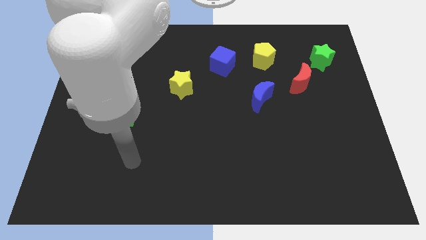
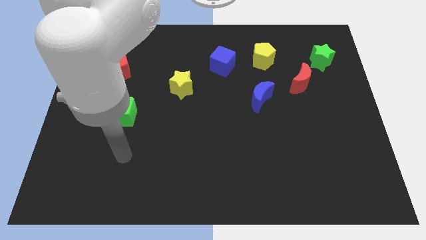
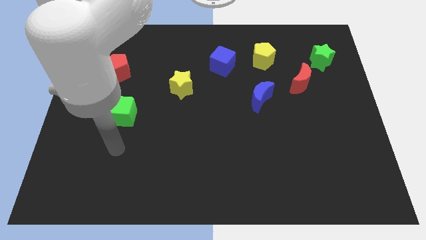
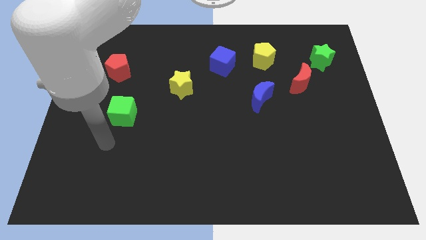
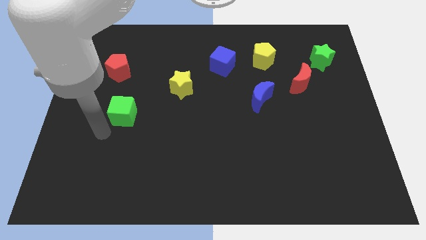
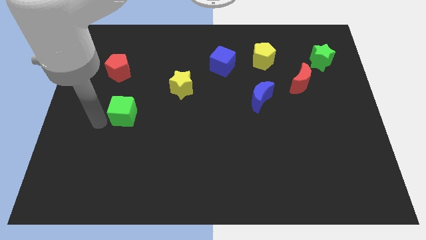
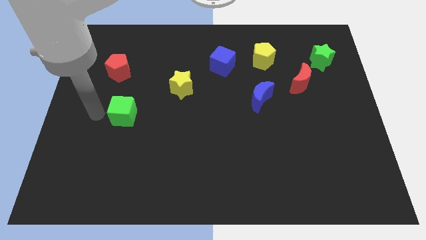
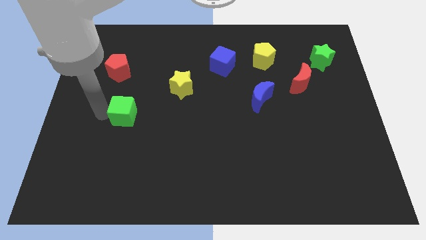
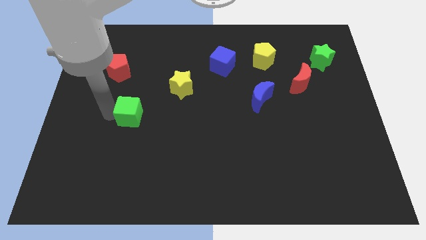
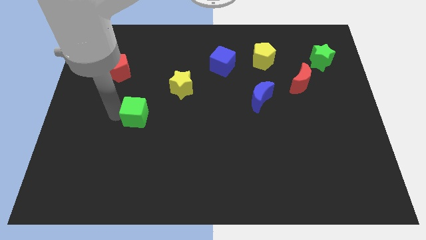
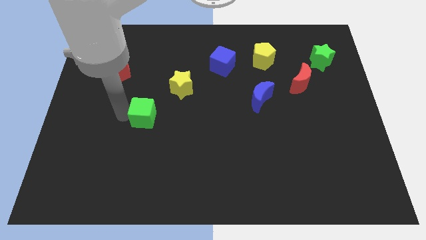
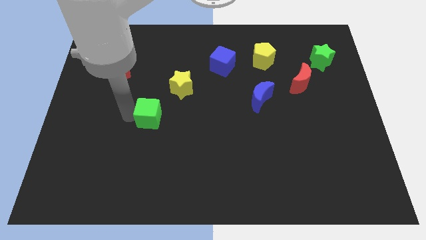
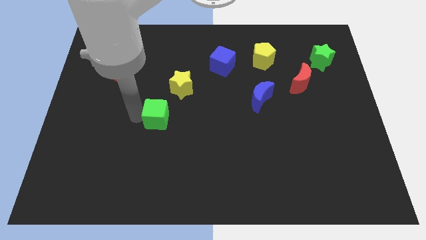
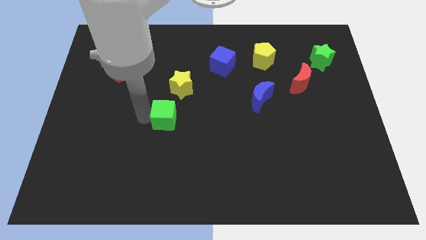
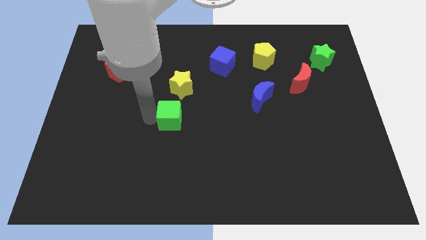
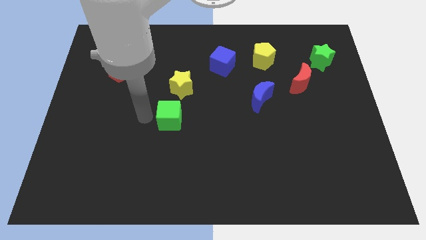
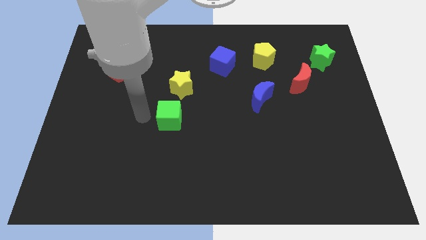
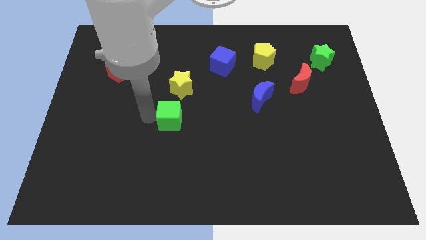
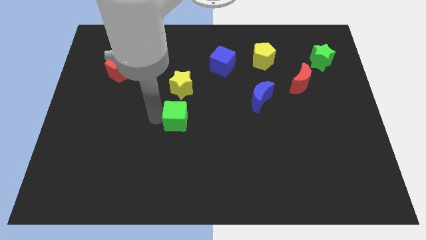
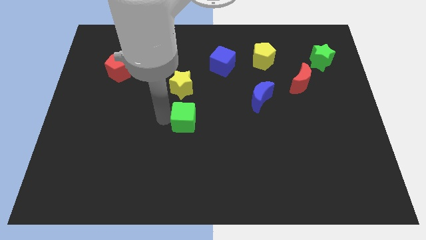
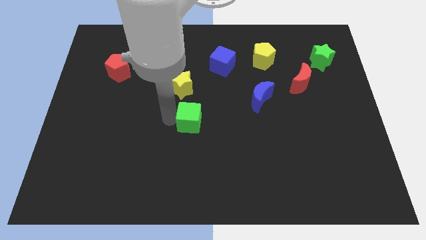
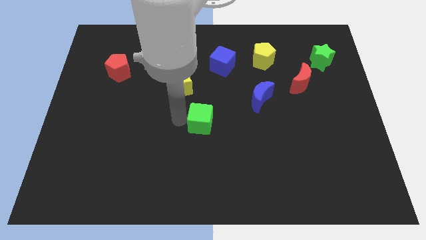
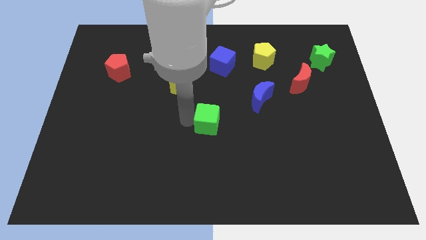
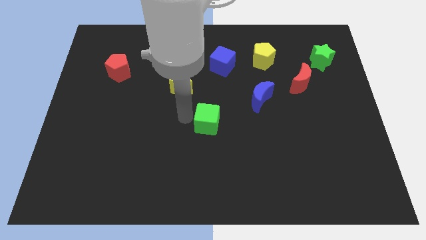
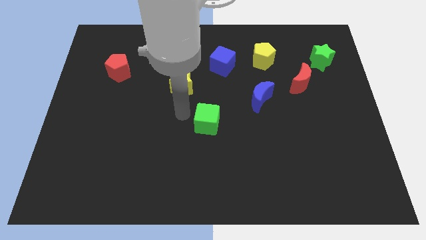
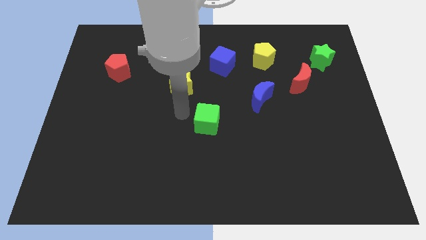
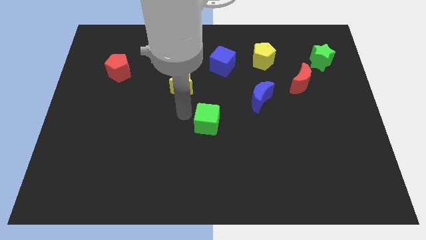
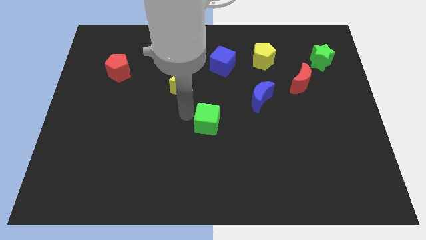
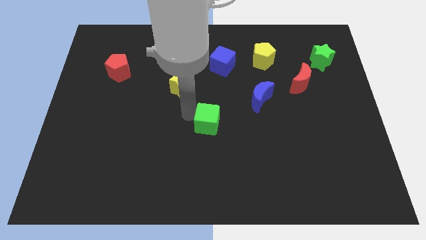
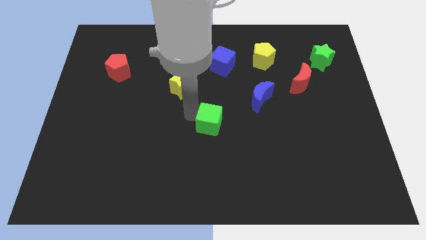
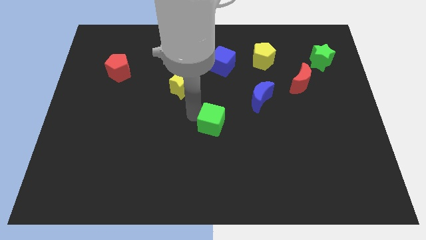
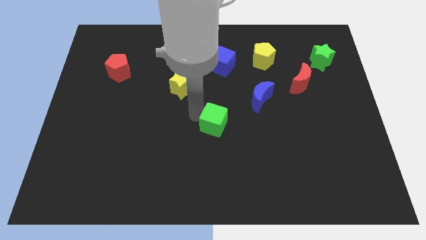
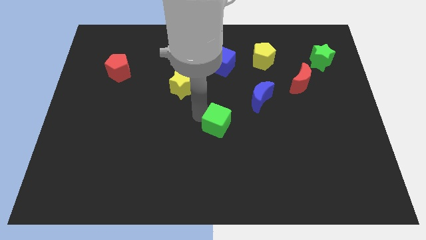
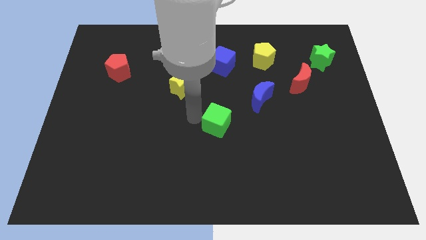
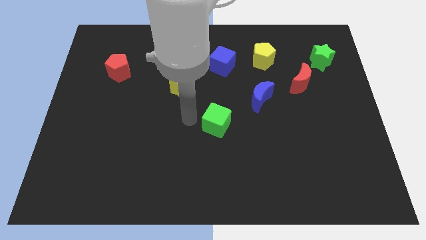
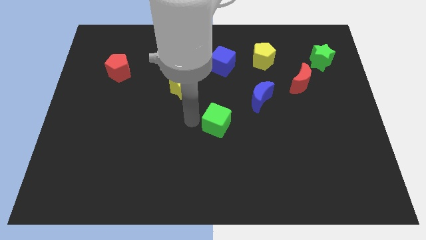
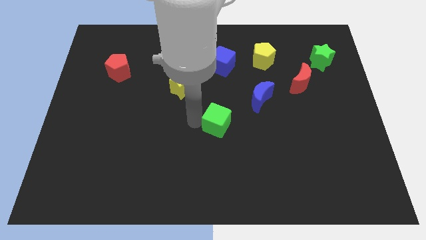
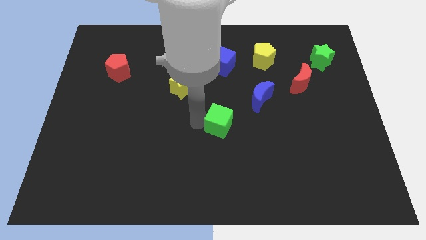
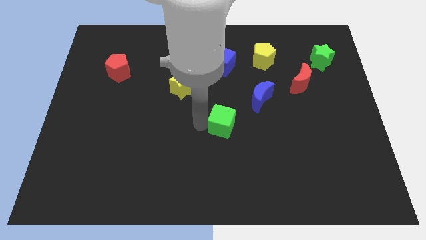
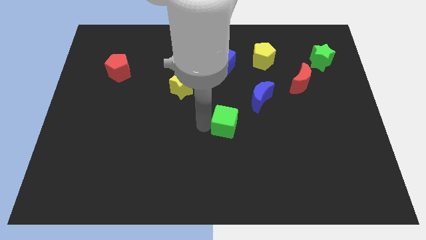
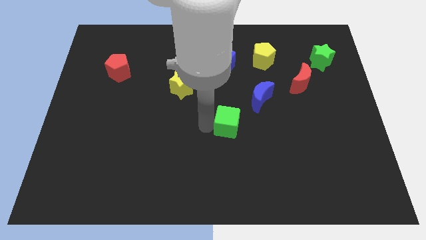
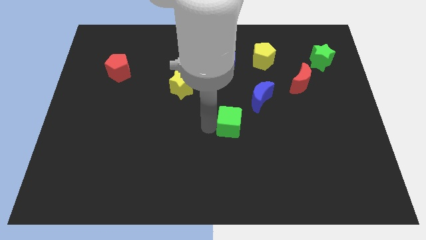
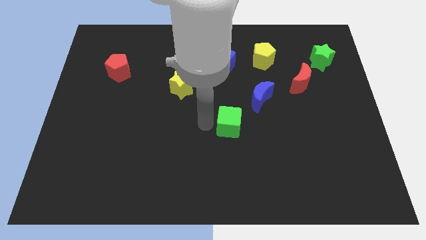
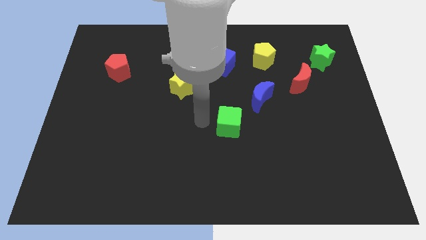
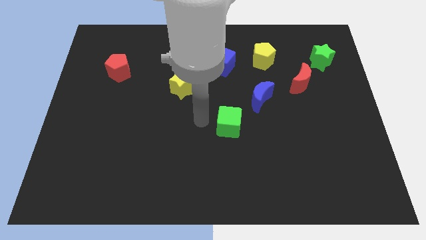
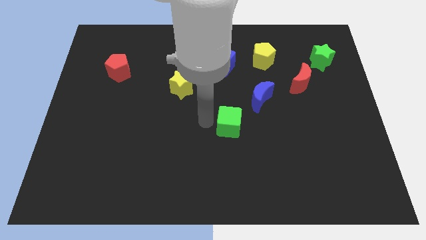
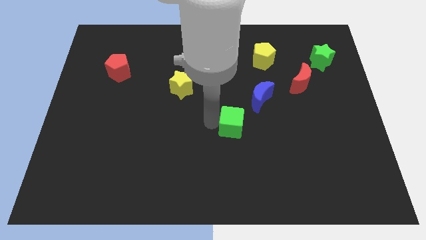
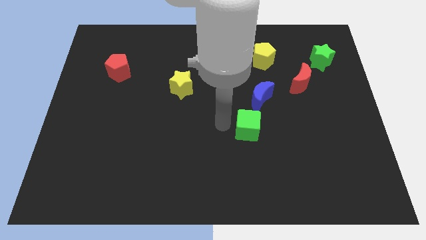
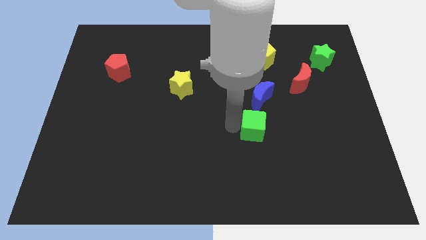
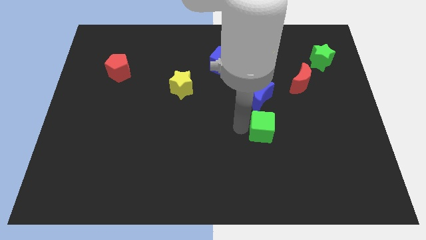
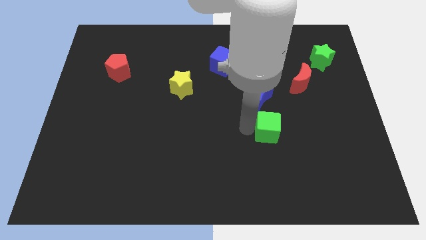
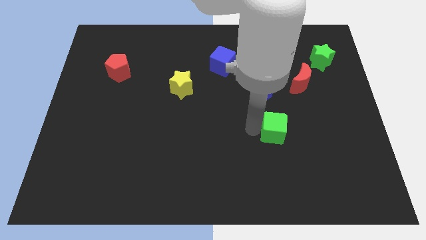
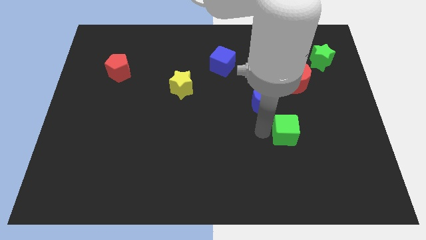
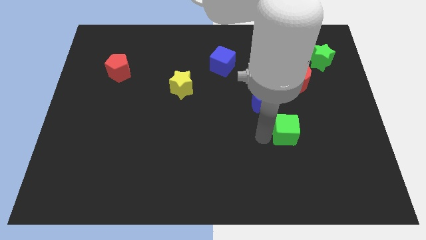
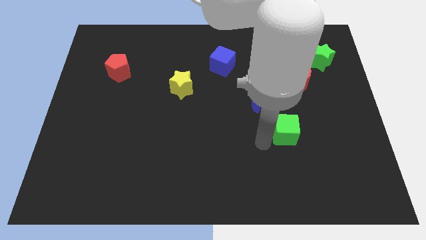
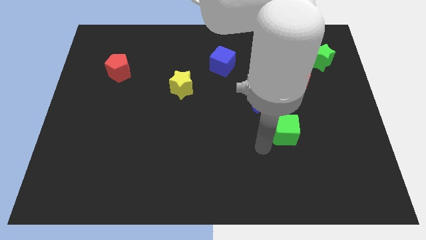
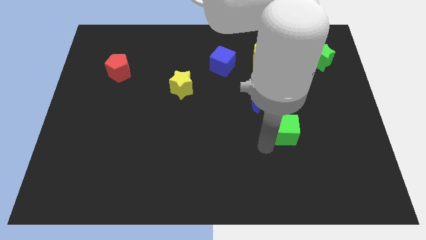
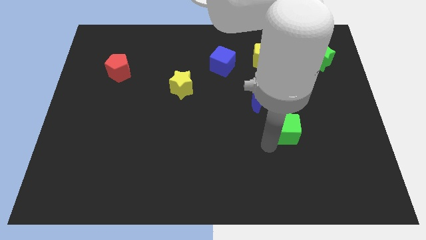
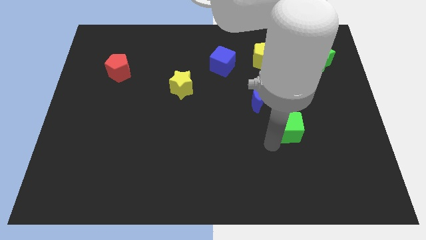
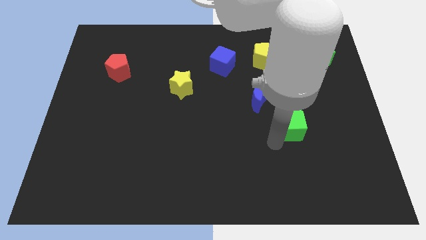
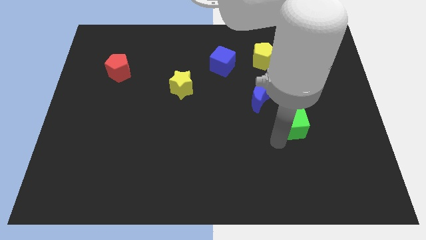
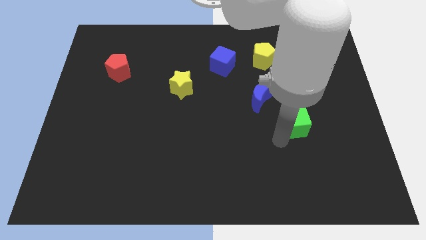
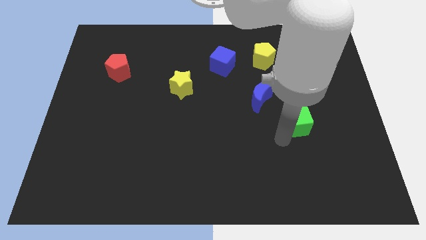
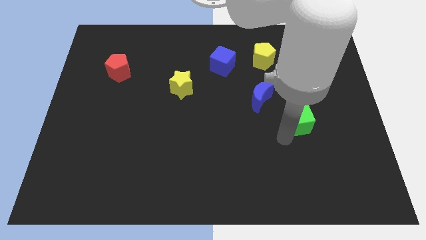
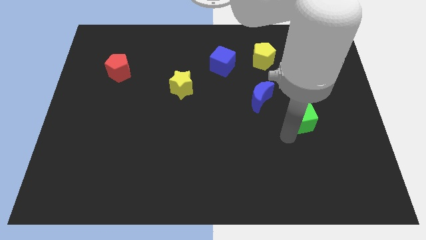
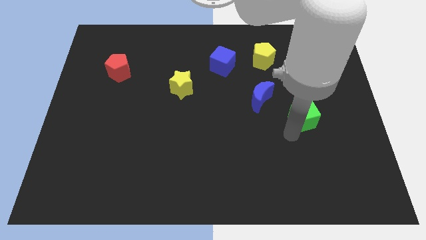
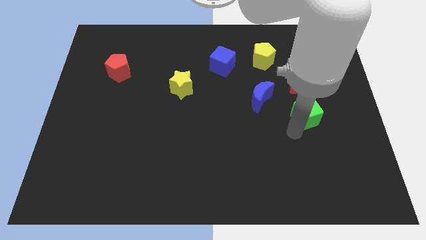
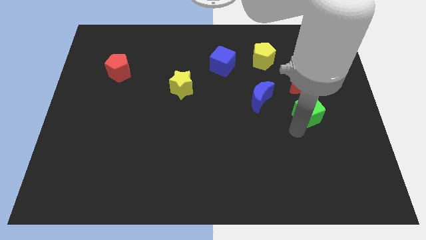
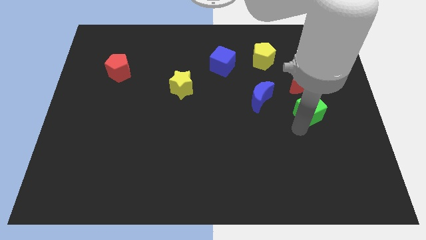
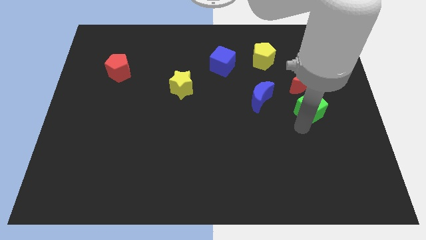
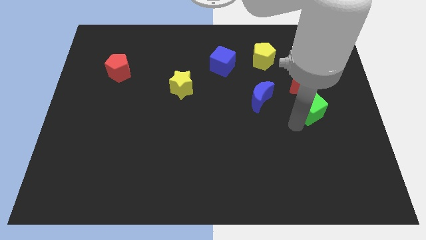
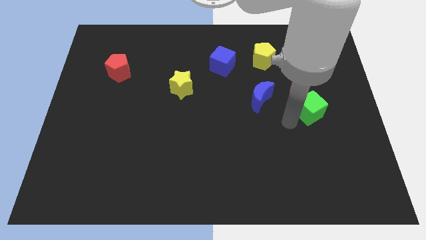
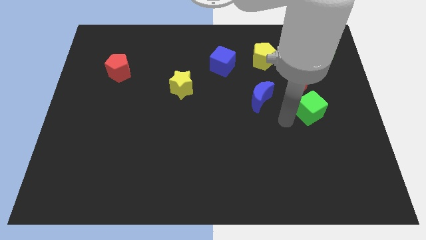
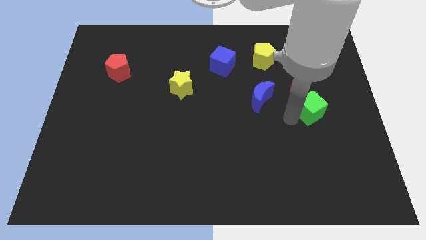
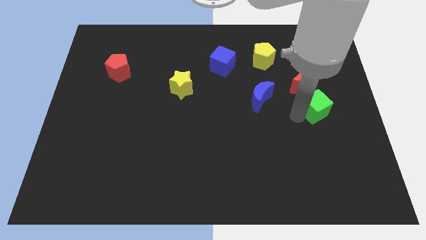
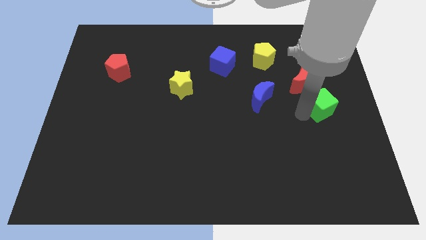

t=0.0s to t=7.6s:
put the green cube to the right side of the board
